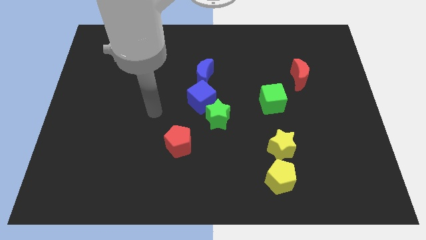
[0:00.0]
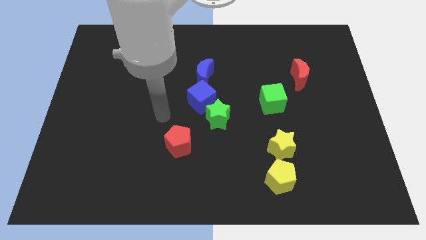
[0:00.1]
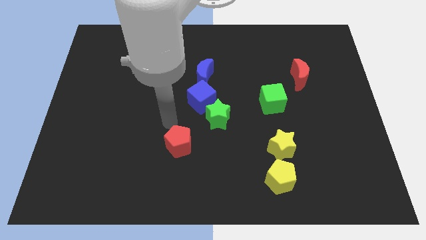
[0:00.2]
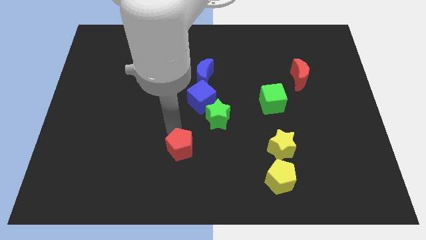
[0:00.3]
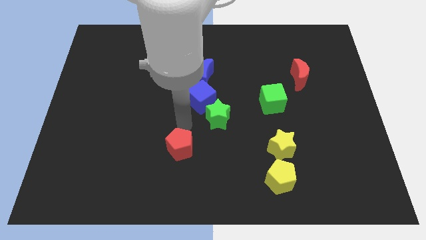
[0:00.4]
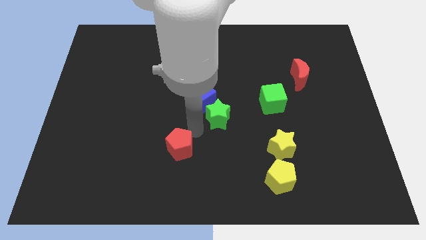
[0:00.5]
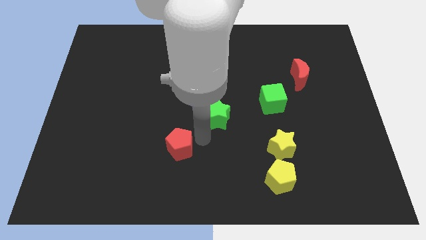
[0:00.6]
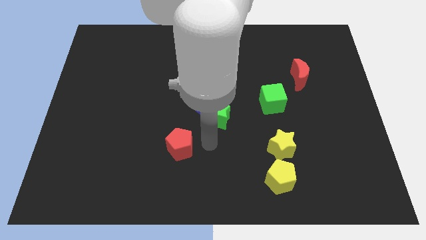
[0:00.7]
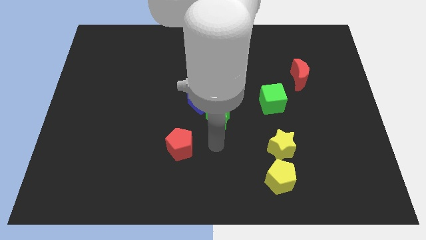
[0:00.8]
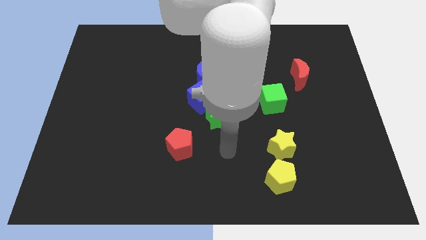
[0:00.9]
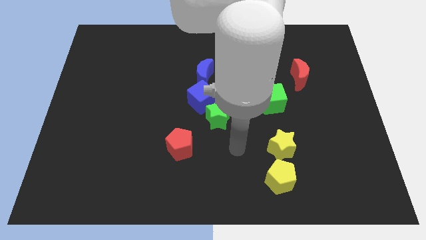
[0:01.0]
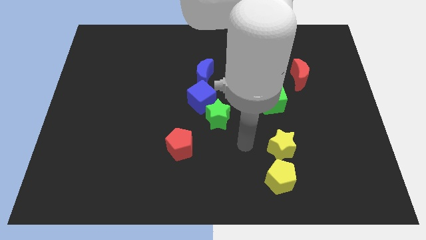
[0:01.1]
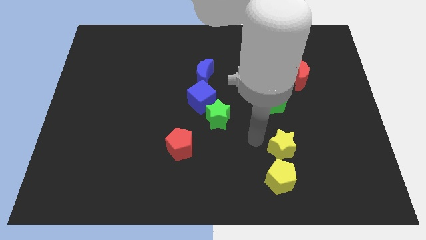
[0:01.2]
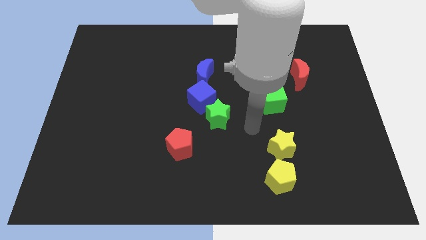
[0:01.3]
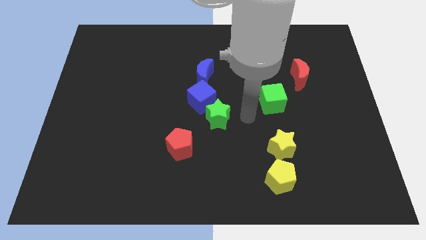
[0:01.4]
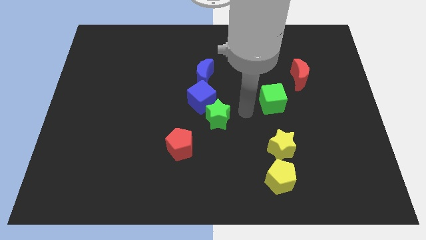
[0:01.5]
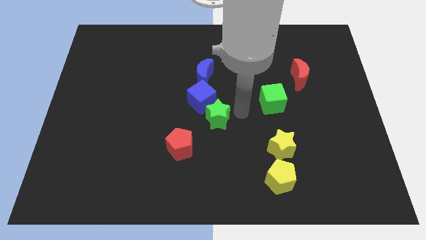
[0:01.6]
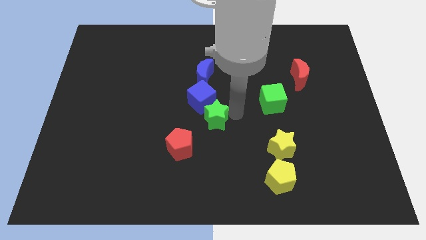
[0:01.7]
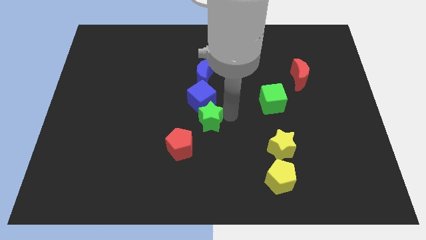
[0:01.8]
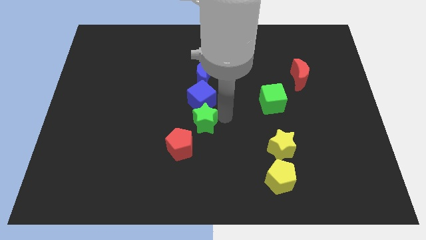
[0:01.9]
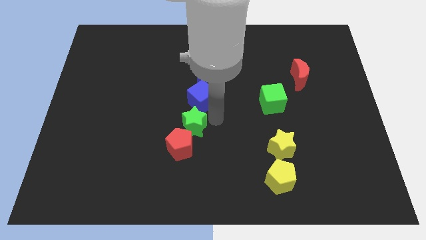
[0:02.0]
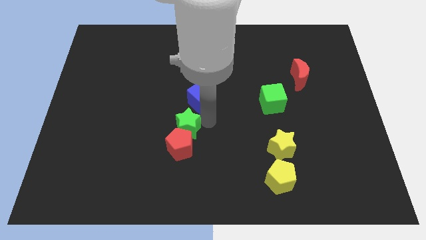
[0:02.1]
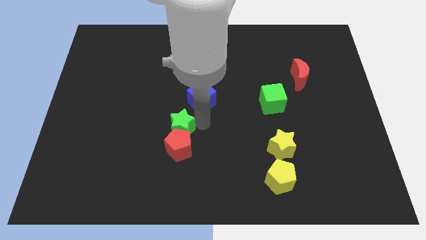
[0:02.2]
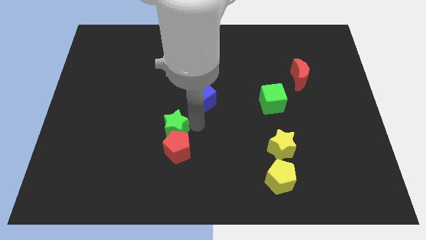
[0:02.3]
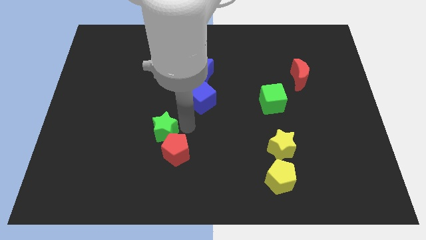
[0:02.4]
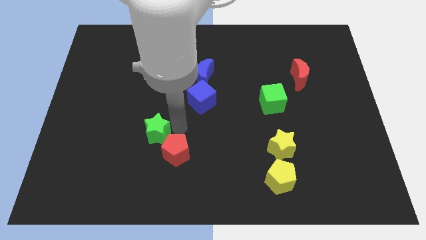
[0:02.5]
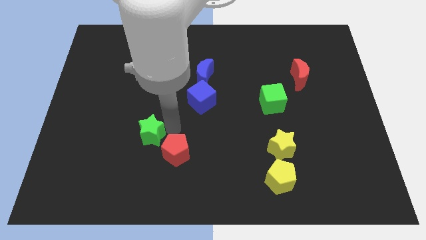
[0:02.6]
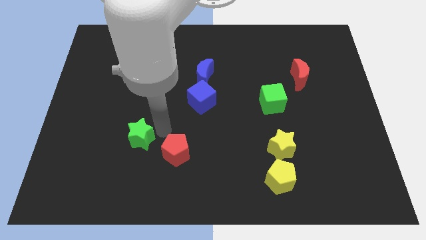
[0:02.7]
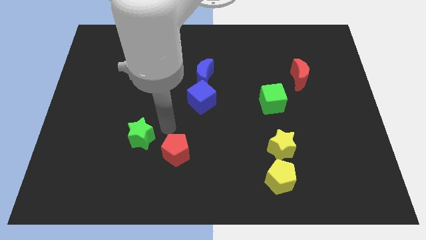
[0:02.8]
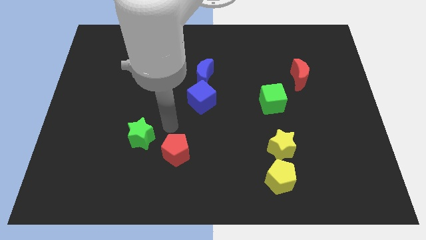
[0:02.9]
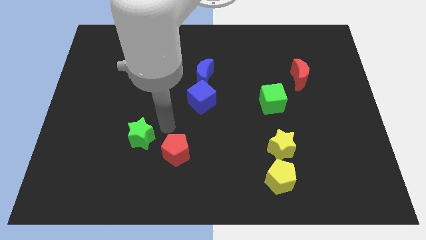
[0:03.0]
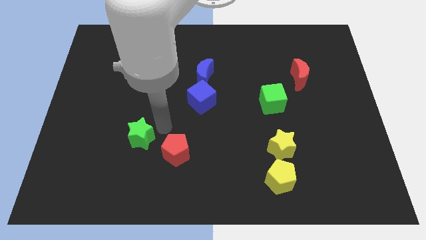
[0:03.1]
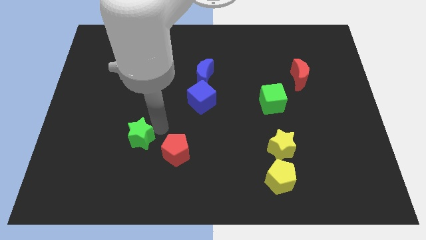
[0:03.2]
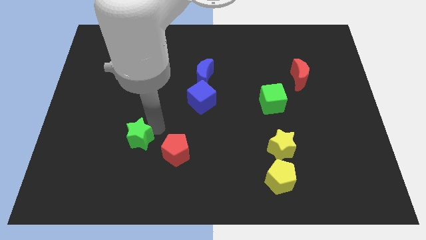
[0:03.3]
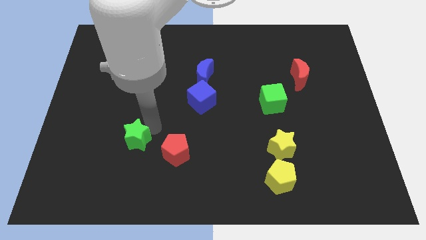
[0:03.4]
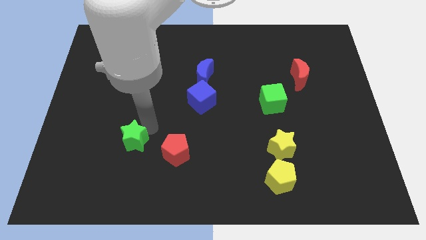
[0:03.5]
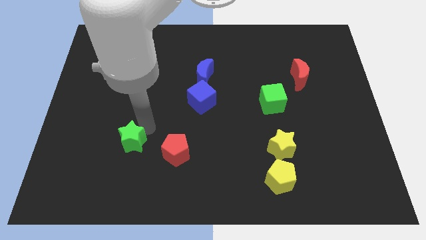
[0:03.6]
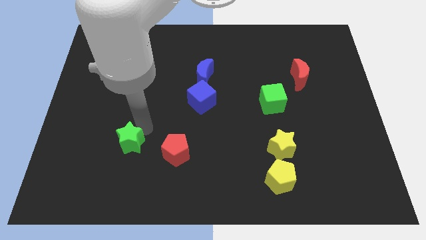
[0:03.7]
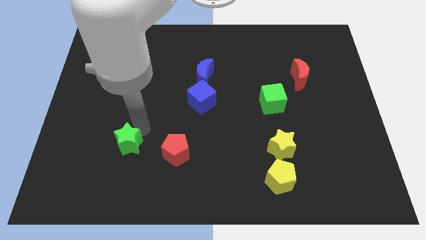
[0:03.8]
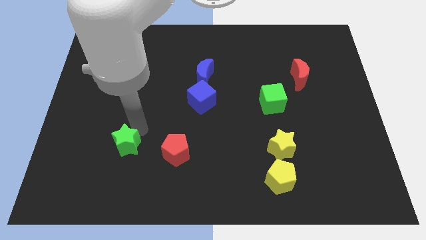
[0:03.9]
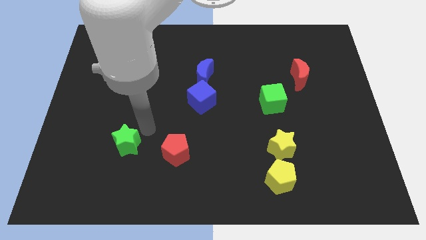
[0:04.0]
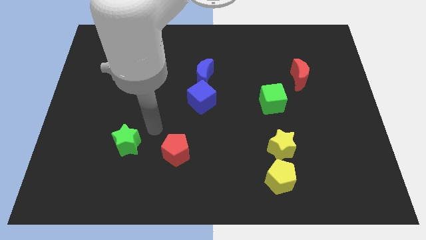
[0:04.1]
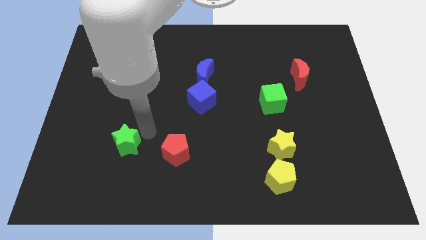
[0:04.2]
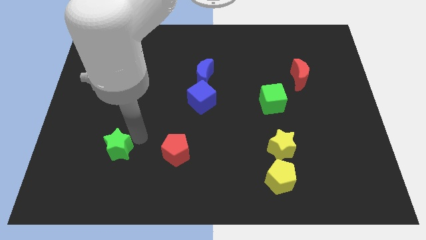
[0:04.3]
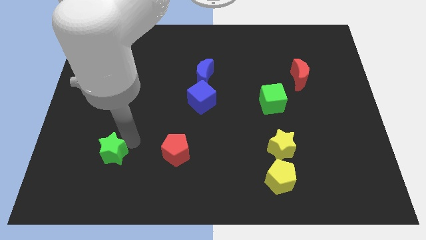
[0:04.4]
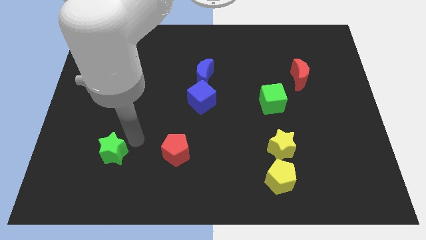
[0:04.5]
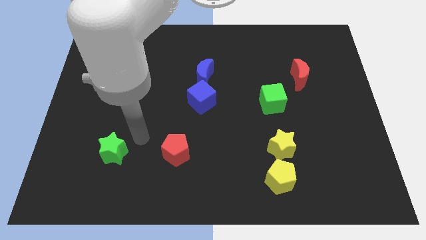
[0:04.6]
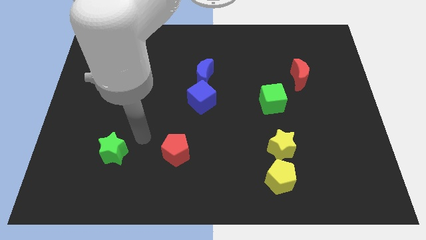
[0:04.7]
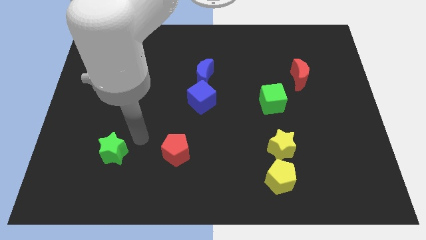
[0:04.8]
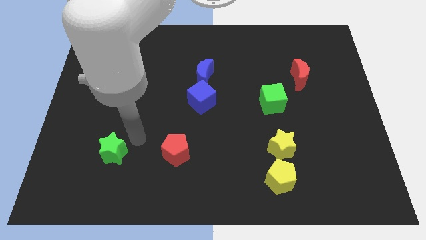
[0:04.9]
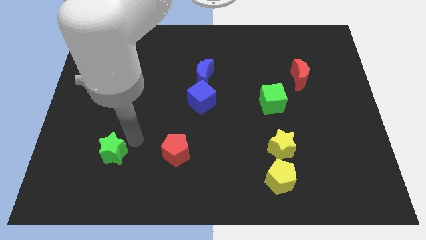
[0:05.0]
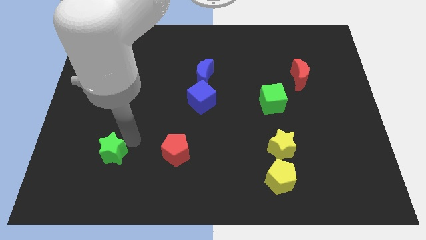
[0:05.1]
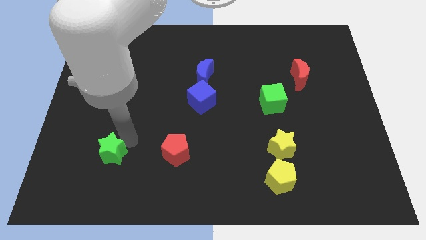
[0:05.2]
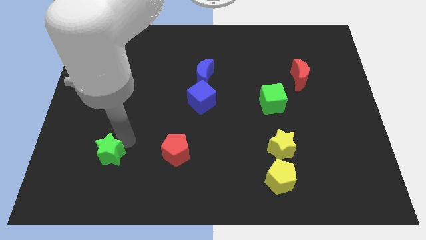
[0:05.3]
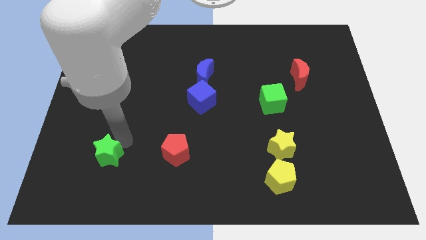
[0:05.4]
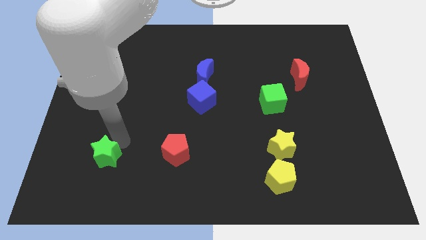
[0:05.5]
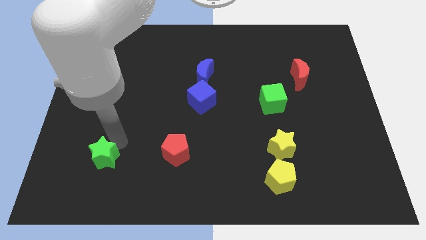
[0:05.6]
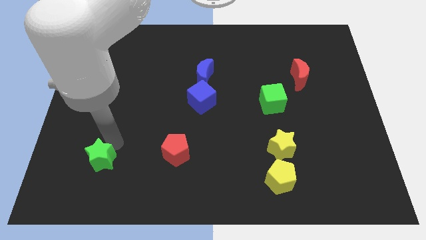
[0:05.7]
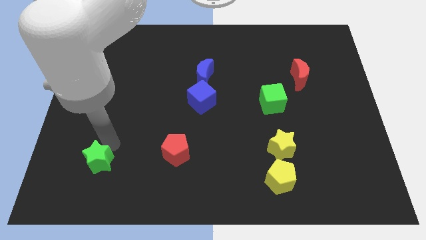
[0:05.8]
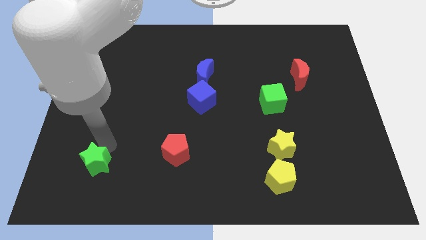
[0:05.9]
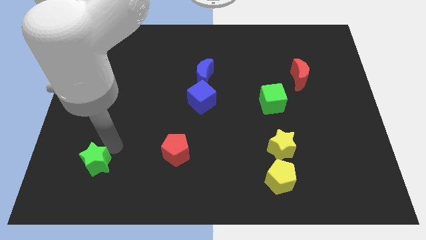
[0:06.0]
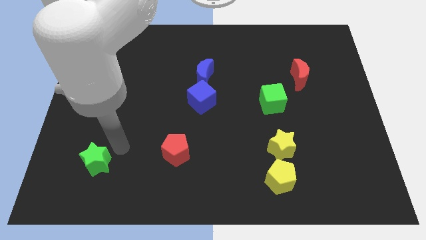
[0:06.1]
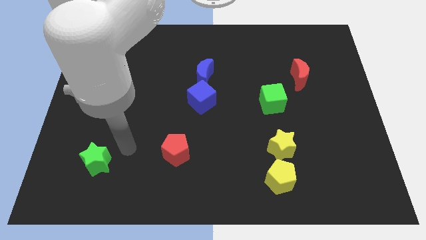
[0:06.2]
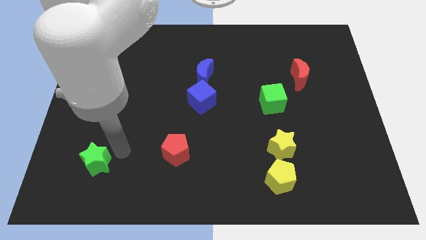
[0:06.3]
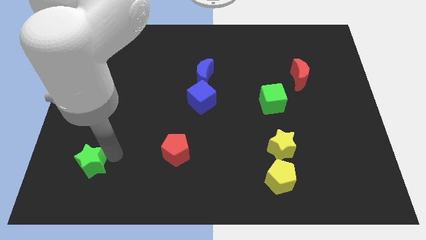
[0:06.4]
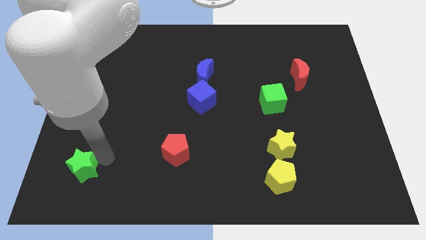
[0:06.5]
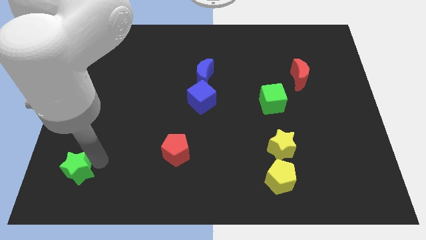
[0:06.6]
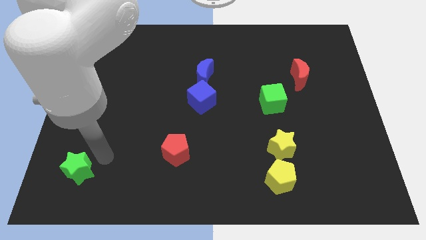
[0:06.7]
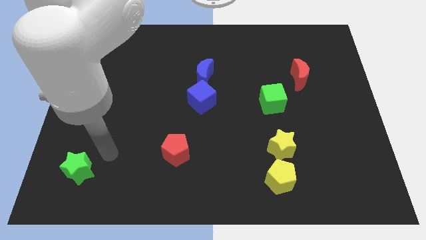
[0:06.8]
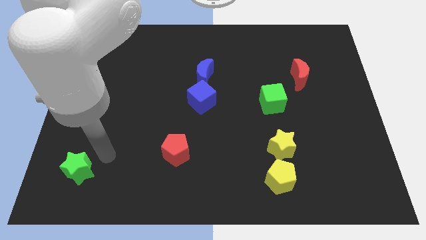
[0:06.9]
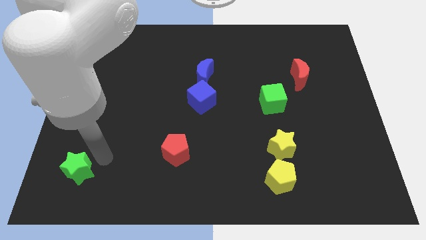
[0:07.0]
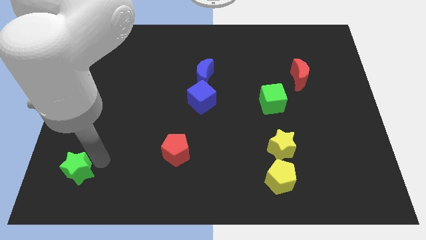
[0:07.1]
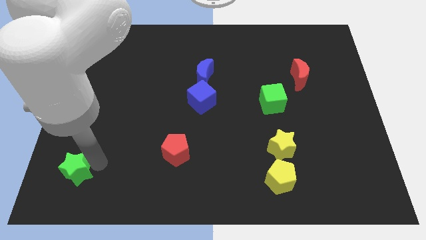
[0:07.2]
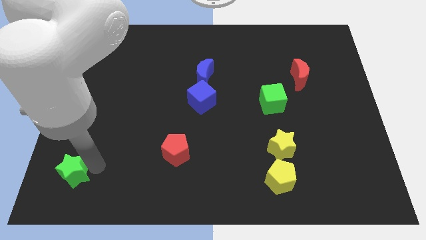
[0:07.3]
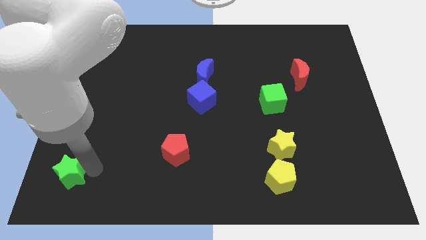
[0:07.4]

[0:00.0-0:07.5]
move the green star to the bottom left corner

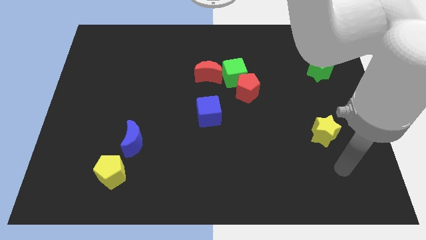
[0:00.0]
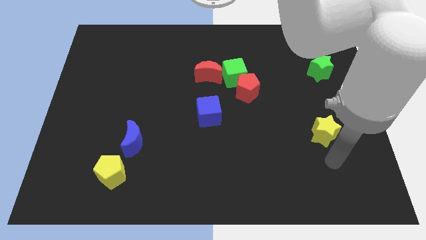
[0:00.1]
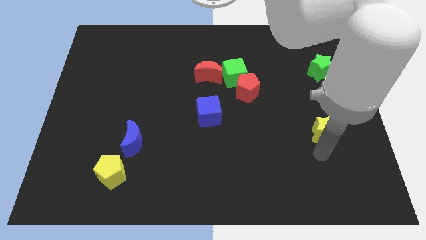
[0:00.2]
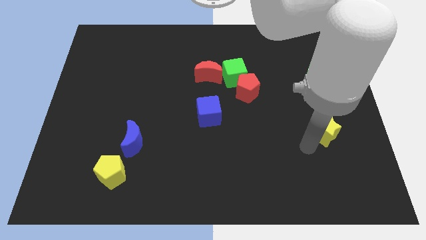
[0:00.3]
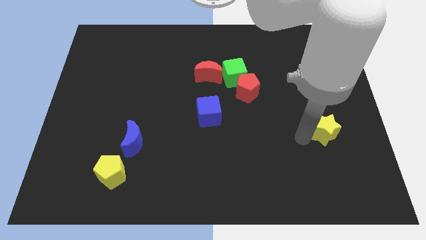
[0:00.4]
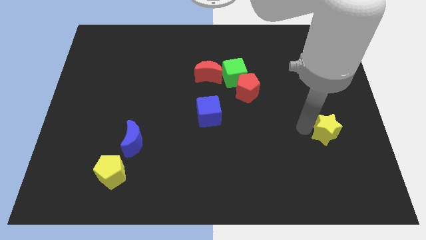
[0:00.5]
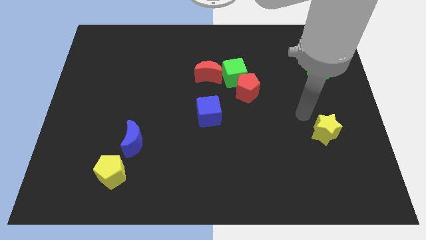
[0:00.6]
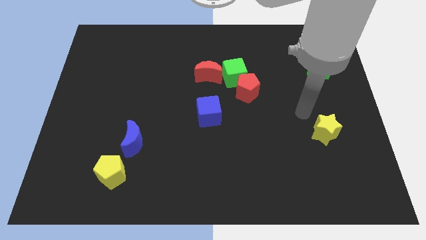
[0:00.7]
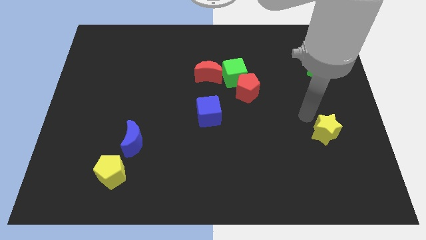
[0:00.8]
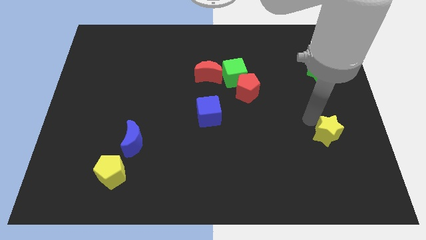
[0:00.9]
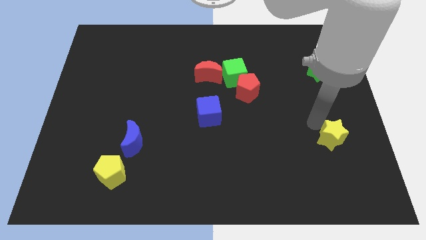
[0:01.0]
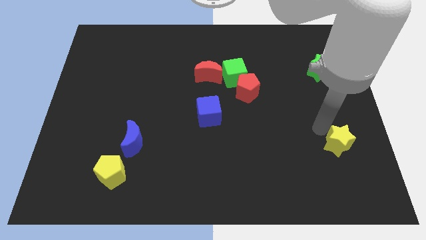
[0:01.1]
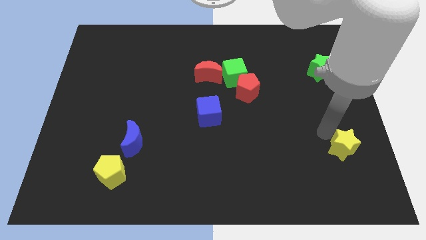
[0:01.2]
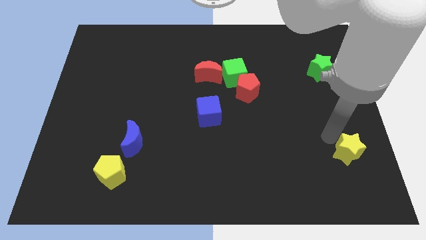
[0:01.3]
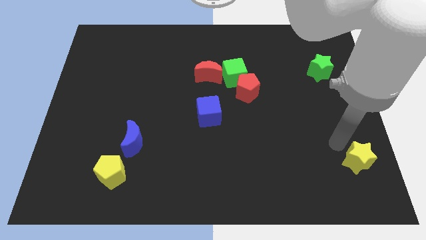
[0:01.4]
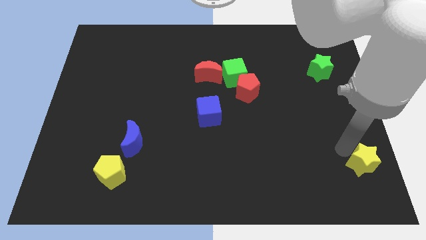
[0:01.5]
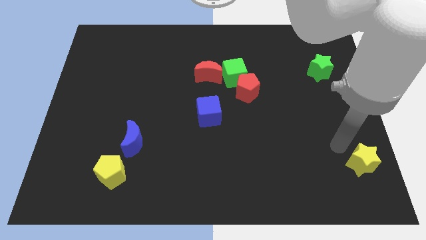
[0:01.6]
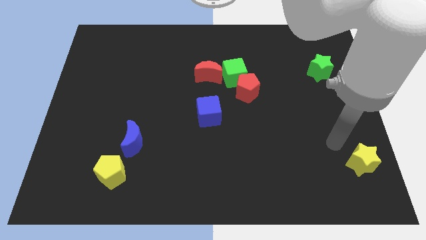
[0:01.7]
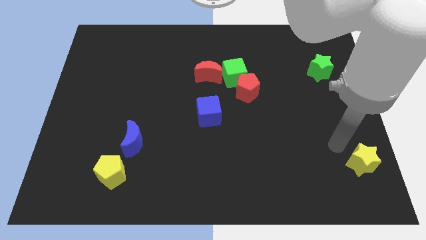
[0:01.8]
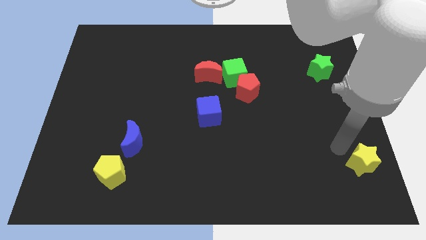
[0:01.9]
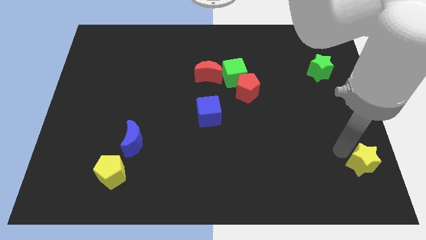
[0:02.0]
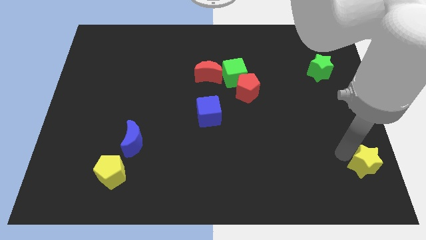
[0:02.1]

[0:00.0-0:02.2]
put the yellow star to the bottom right
